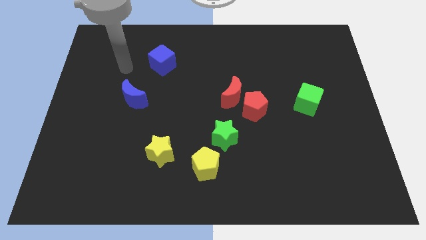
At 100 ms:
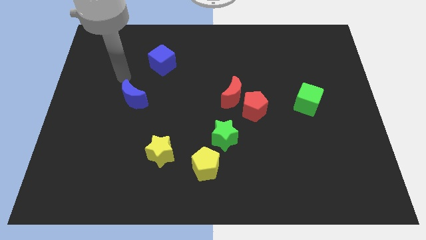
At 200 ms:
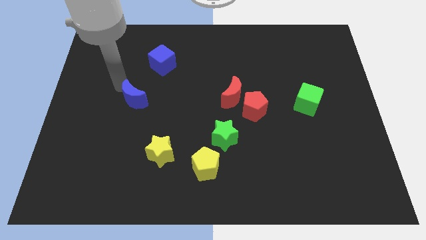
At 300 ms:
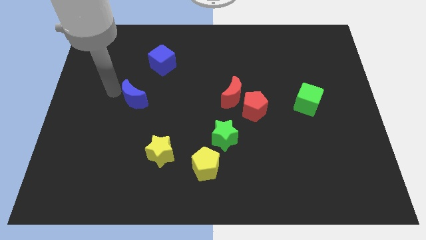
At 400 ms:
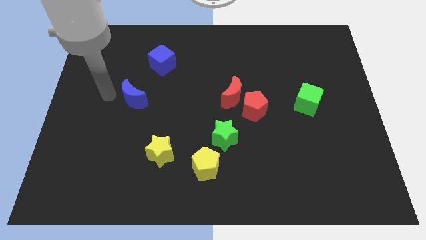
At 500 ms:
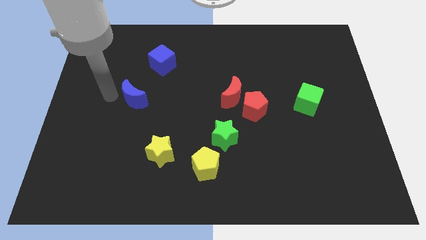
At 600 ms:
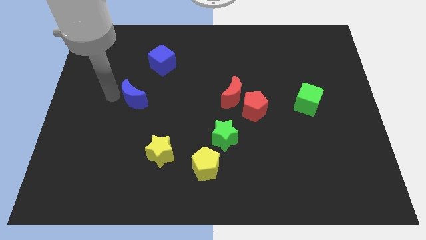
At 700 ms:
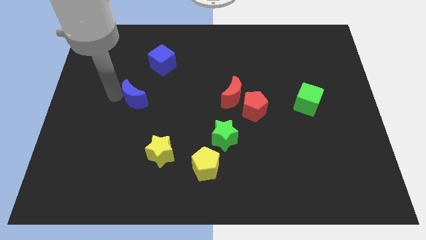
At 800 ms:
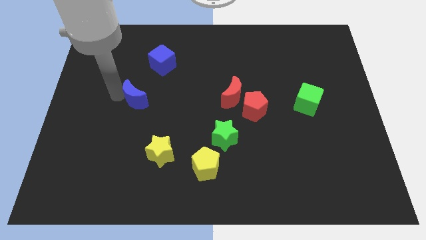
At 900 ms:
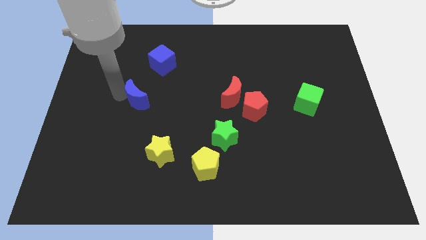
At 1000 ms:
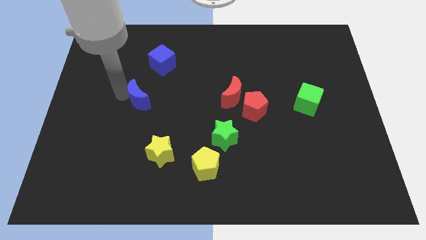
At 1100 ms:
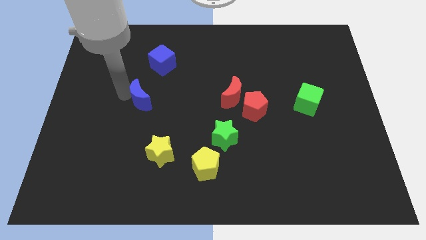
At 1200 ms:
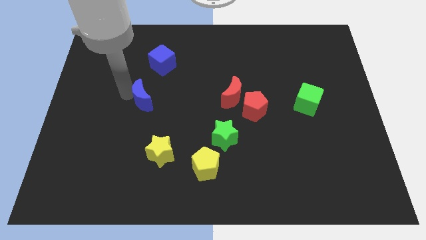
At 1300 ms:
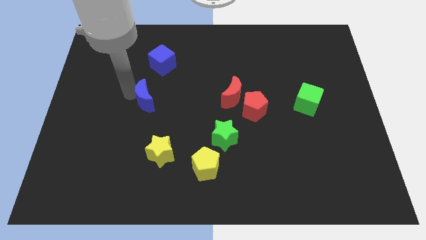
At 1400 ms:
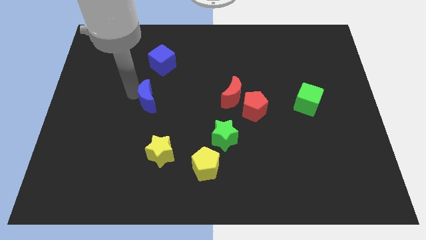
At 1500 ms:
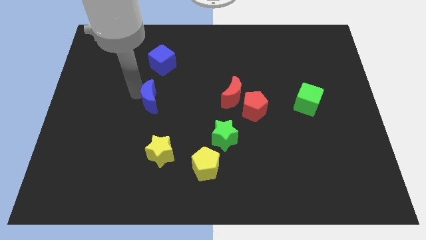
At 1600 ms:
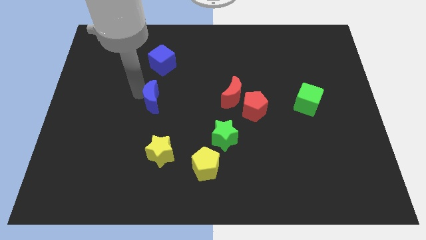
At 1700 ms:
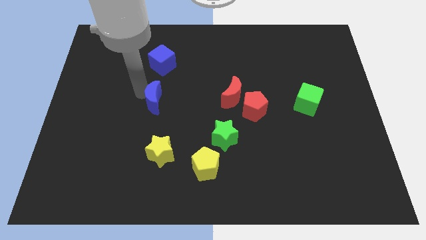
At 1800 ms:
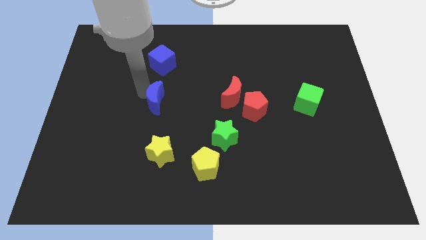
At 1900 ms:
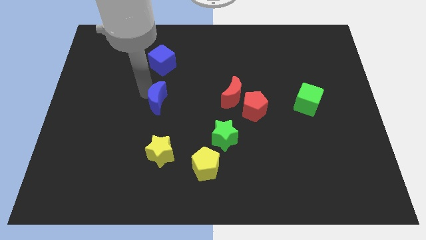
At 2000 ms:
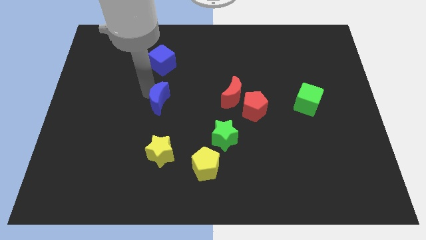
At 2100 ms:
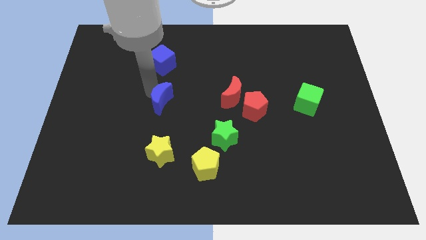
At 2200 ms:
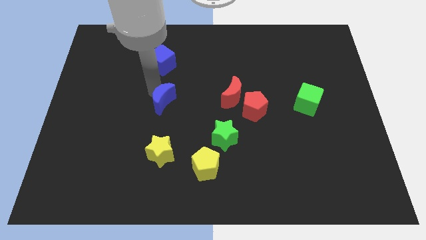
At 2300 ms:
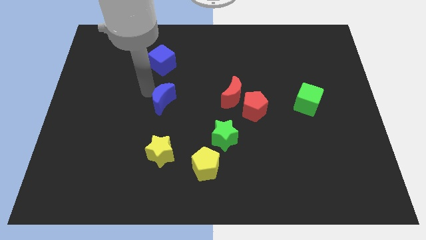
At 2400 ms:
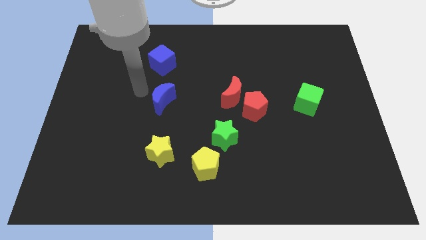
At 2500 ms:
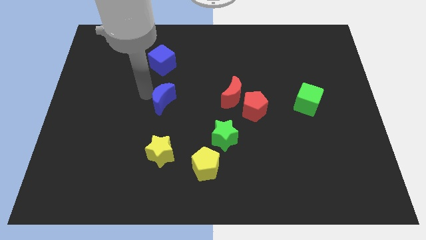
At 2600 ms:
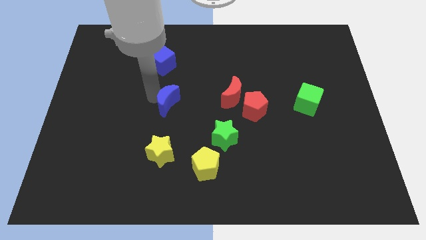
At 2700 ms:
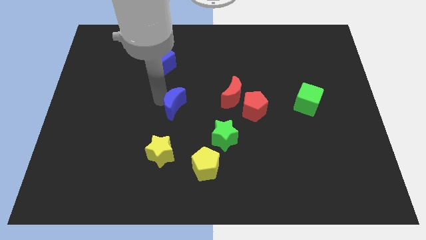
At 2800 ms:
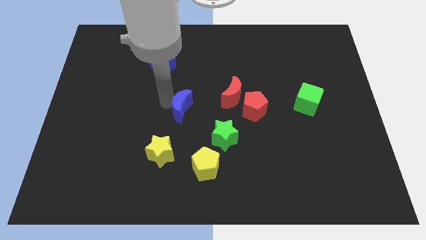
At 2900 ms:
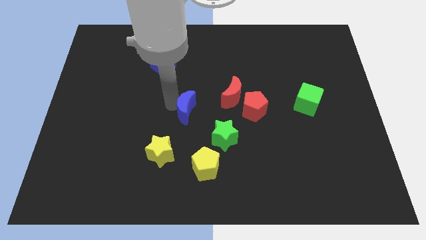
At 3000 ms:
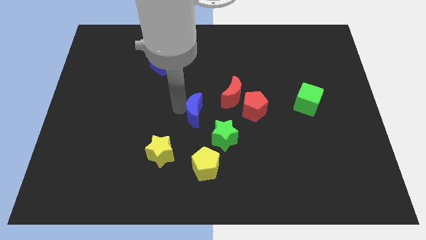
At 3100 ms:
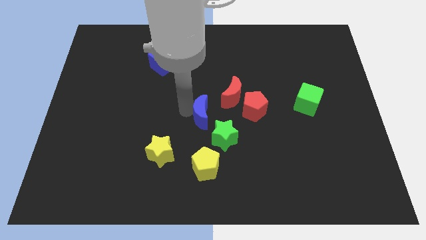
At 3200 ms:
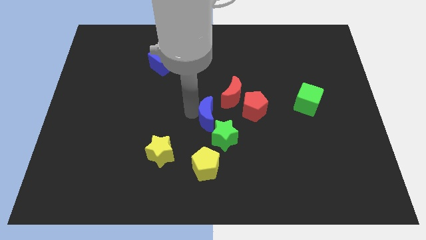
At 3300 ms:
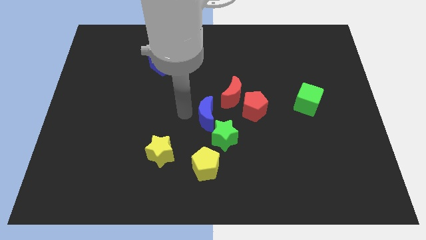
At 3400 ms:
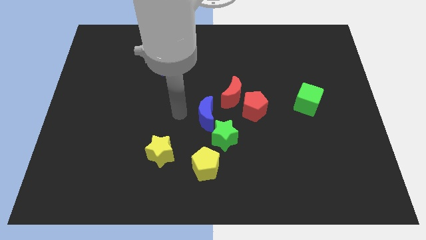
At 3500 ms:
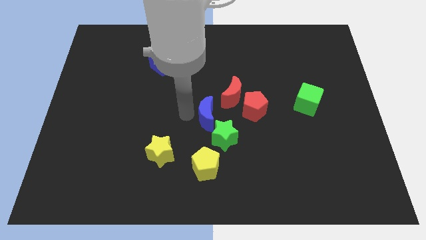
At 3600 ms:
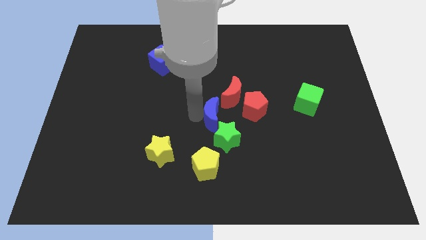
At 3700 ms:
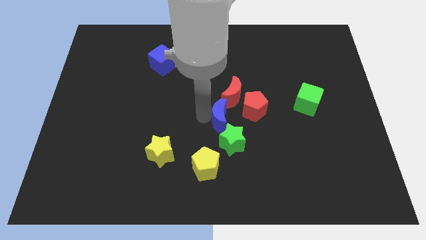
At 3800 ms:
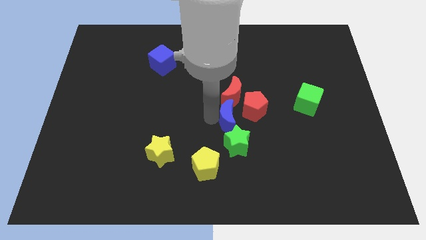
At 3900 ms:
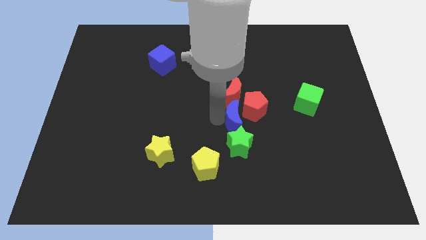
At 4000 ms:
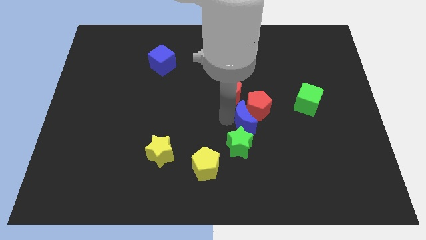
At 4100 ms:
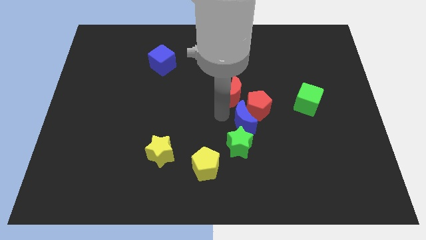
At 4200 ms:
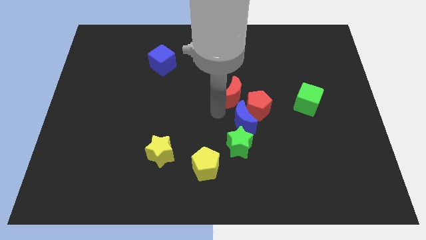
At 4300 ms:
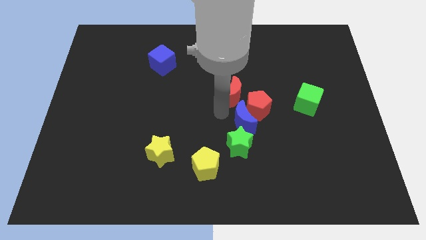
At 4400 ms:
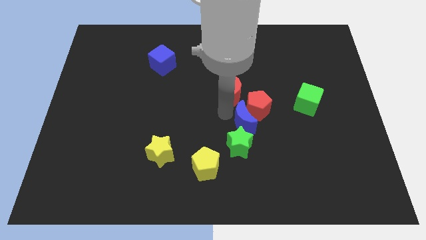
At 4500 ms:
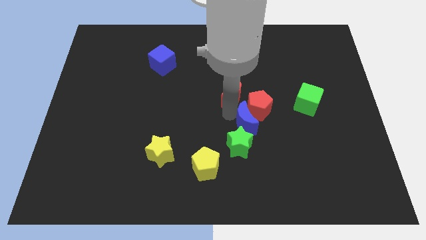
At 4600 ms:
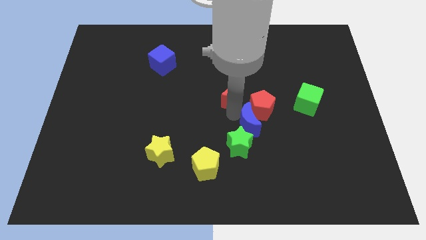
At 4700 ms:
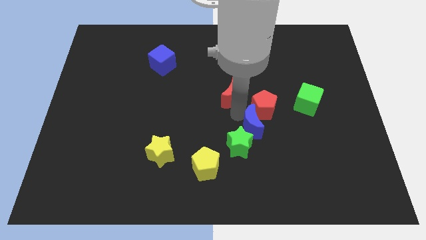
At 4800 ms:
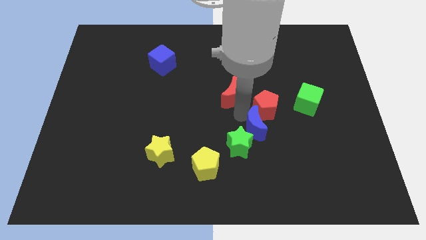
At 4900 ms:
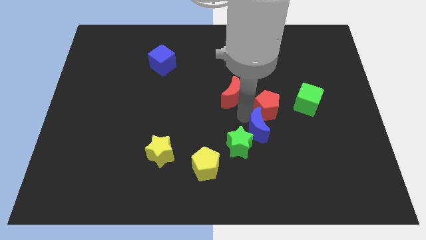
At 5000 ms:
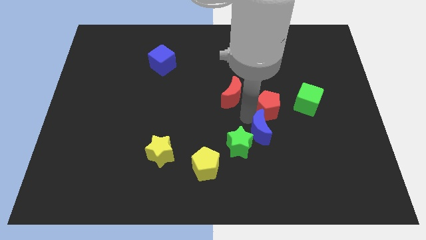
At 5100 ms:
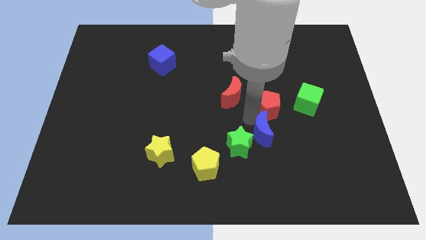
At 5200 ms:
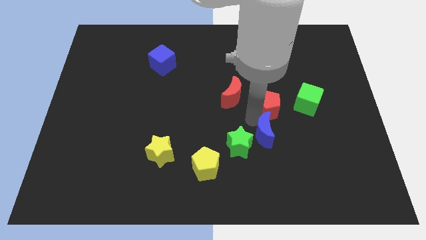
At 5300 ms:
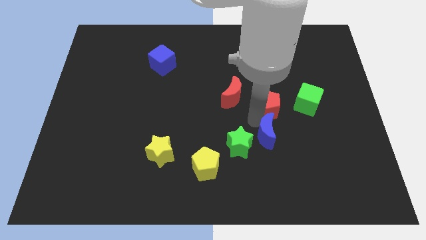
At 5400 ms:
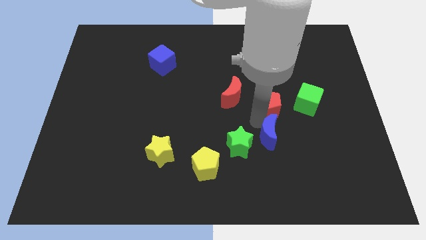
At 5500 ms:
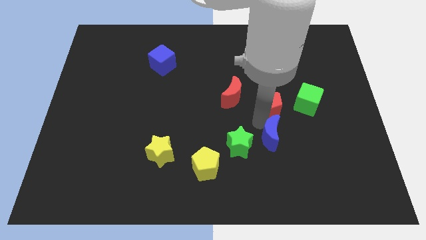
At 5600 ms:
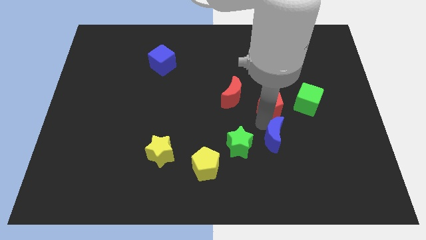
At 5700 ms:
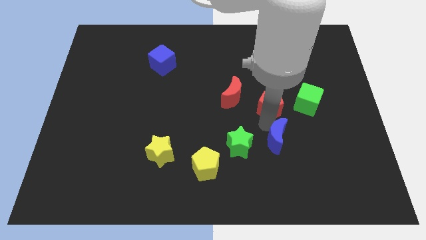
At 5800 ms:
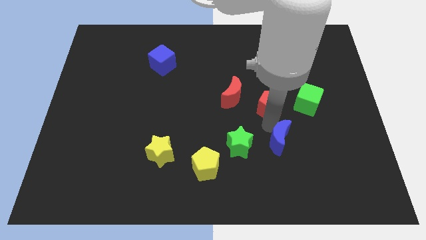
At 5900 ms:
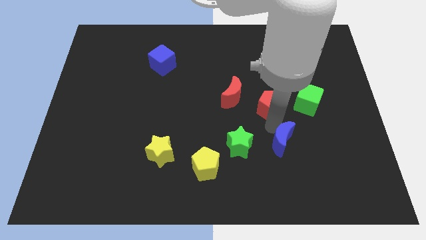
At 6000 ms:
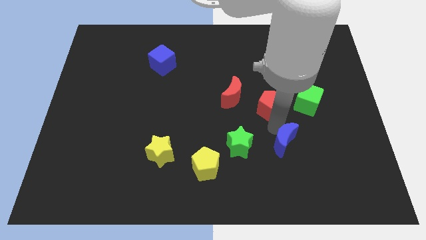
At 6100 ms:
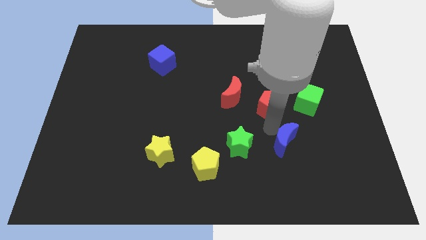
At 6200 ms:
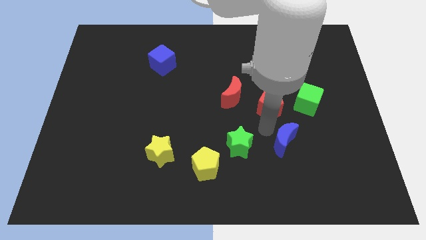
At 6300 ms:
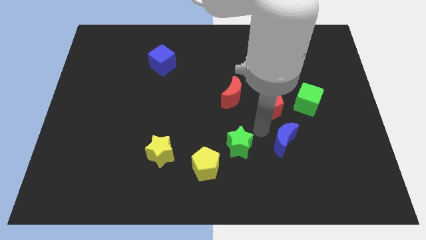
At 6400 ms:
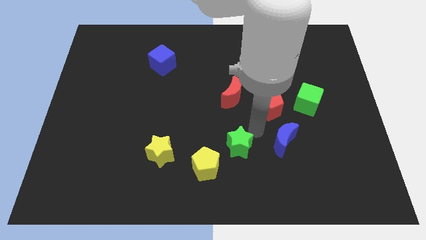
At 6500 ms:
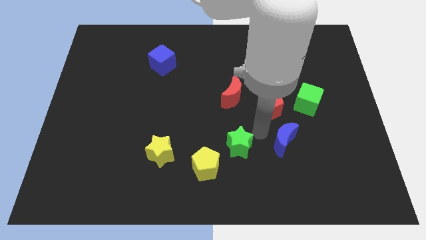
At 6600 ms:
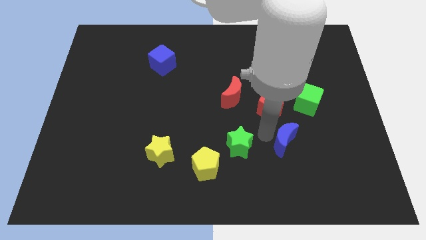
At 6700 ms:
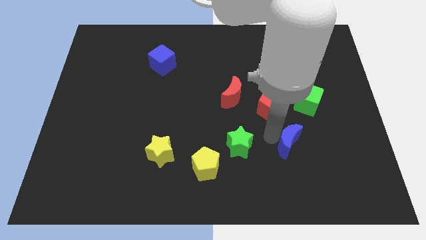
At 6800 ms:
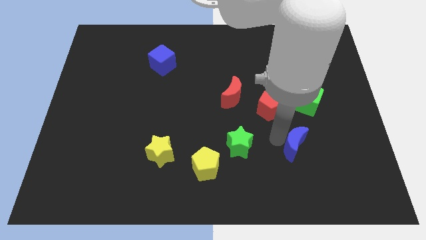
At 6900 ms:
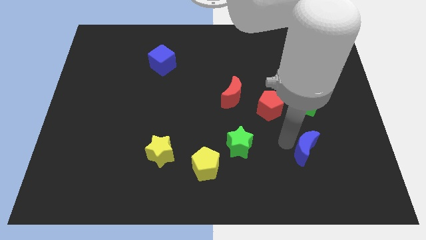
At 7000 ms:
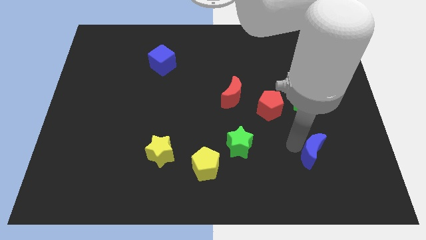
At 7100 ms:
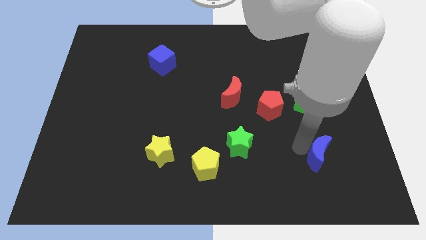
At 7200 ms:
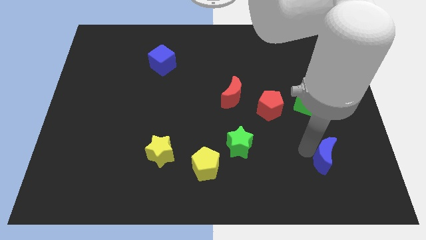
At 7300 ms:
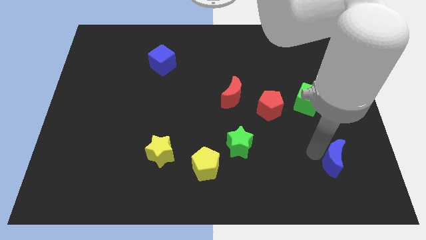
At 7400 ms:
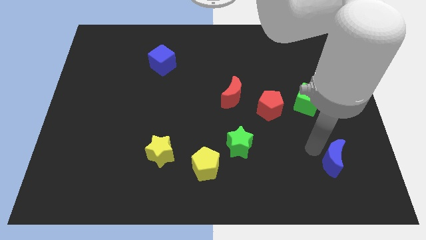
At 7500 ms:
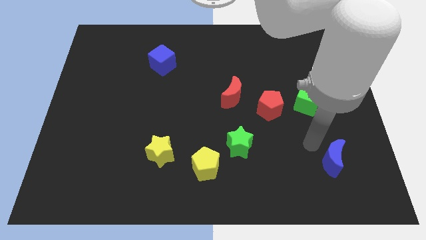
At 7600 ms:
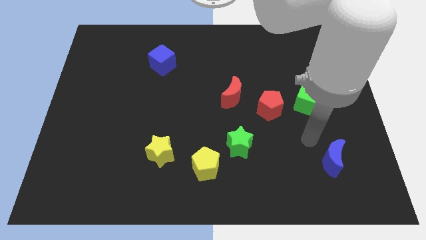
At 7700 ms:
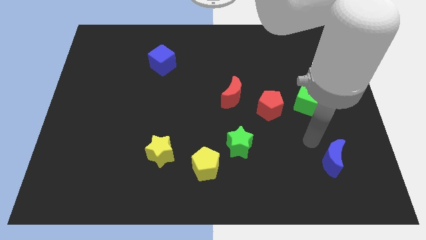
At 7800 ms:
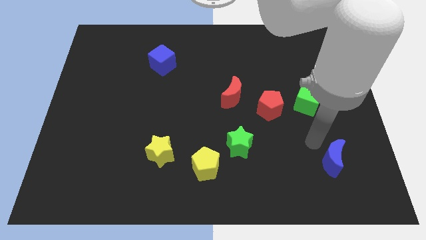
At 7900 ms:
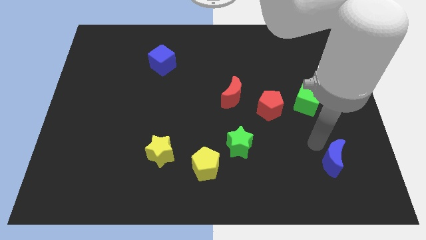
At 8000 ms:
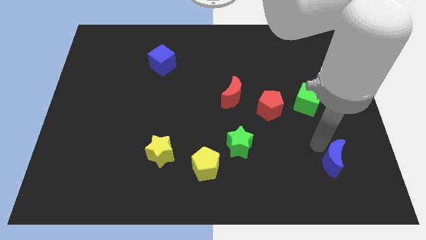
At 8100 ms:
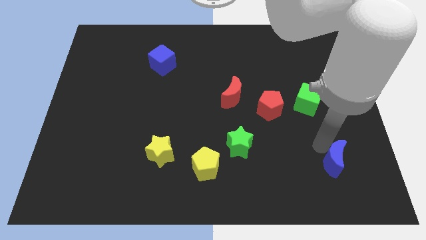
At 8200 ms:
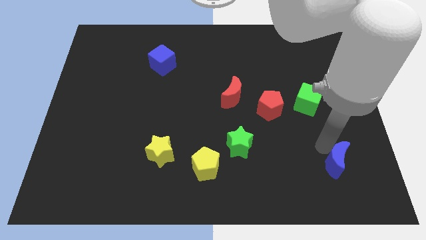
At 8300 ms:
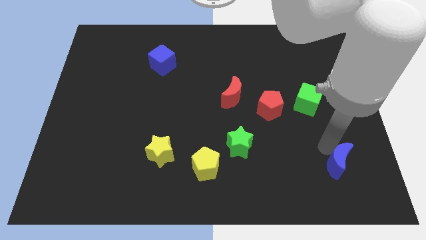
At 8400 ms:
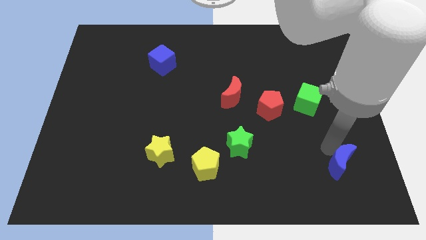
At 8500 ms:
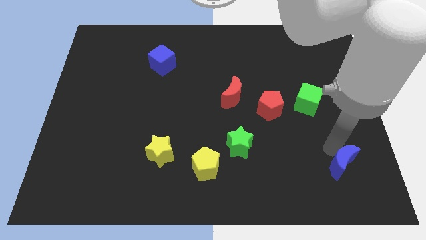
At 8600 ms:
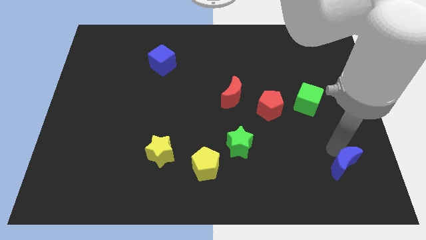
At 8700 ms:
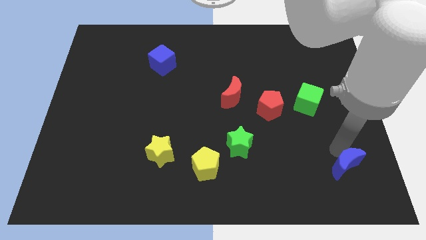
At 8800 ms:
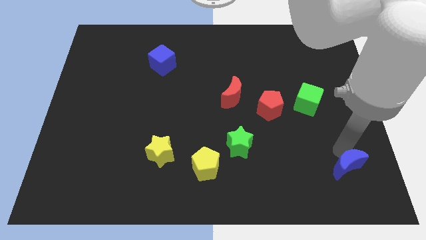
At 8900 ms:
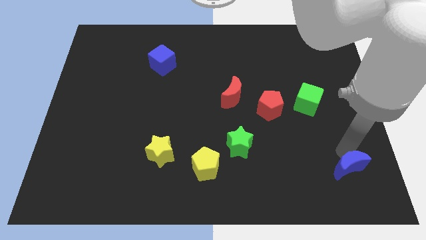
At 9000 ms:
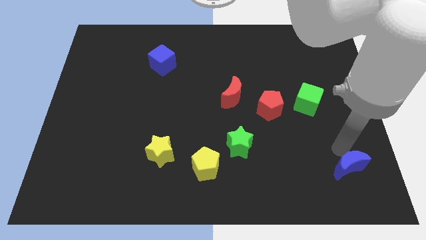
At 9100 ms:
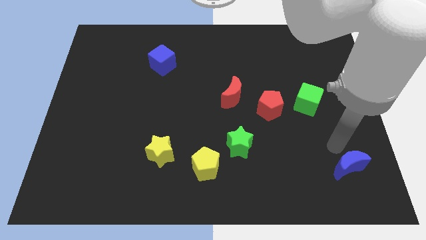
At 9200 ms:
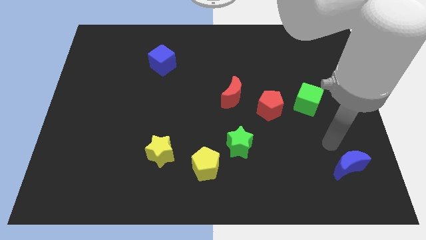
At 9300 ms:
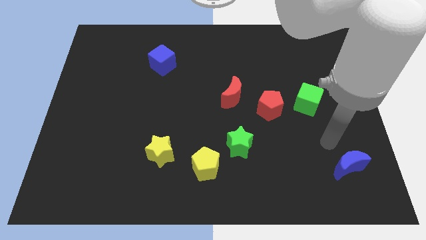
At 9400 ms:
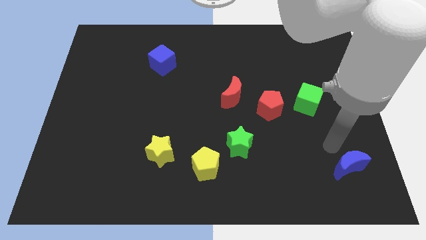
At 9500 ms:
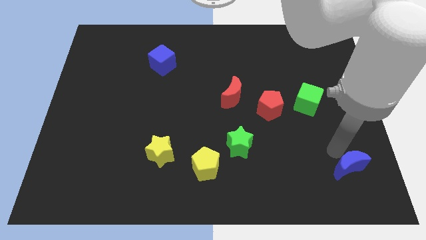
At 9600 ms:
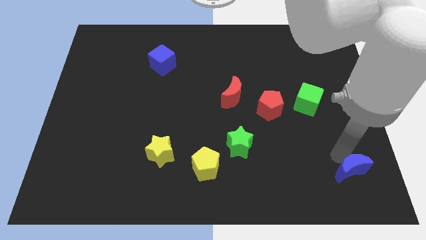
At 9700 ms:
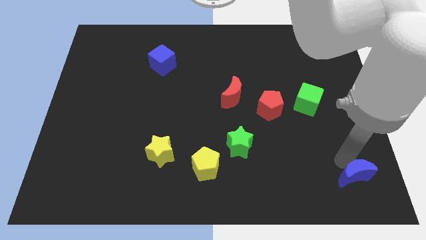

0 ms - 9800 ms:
put the blue moon to the lower right corner
